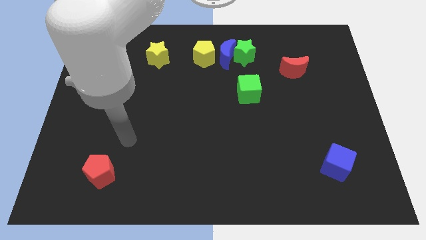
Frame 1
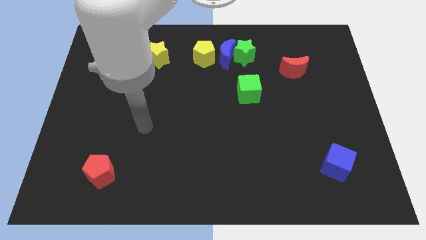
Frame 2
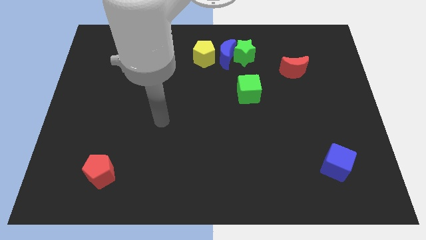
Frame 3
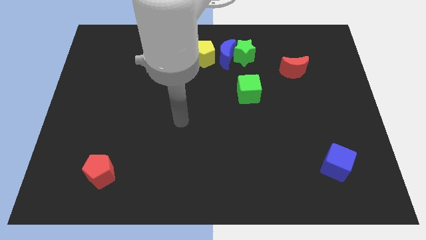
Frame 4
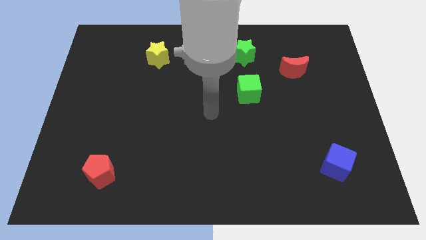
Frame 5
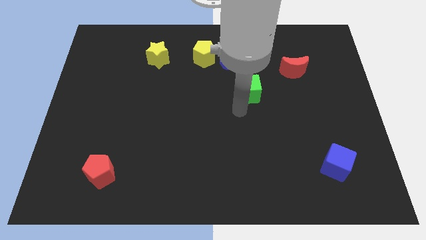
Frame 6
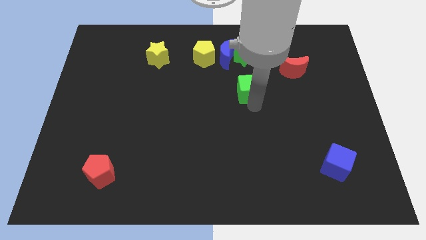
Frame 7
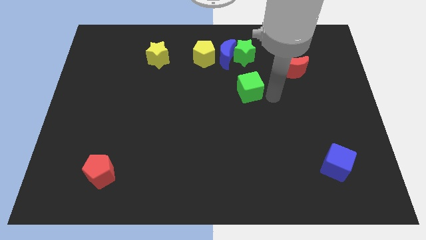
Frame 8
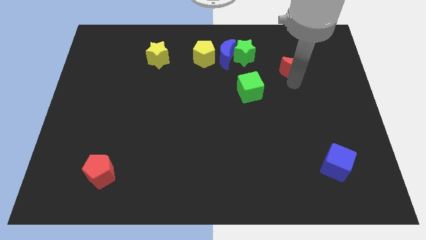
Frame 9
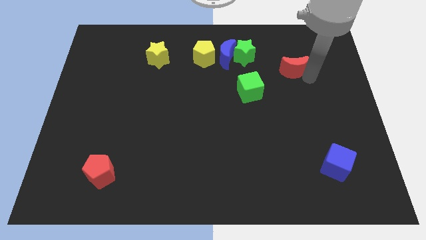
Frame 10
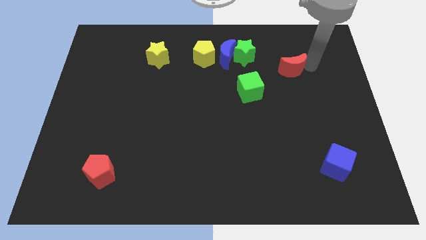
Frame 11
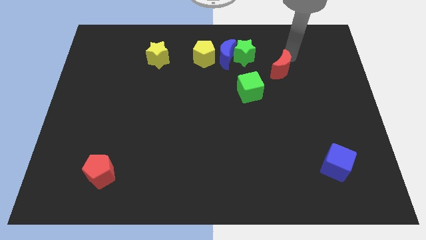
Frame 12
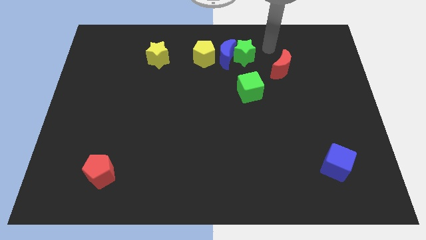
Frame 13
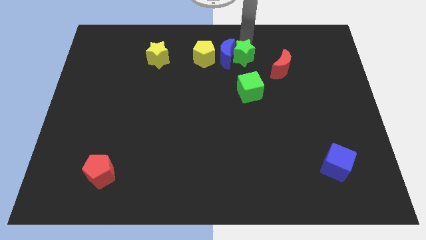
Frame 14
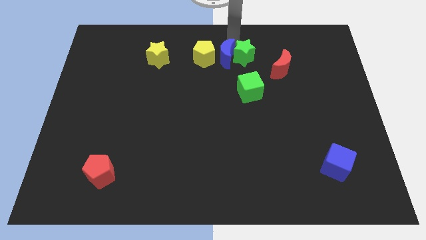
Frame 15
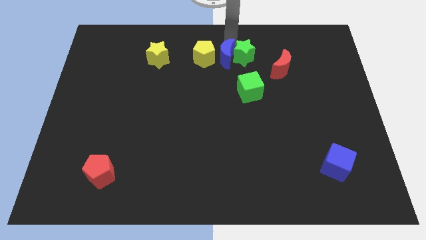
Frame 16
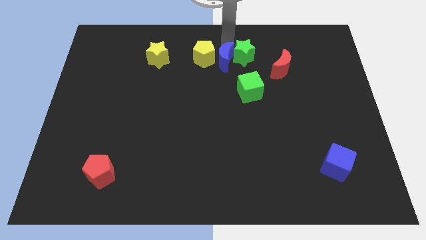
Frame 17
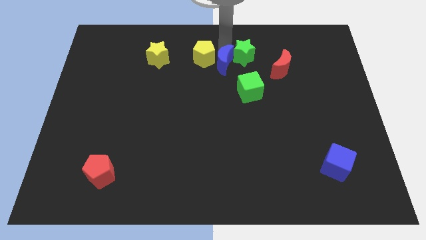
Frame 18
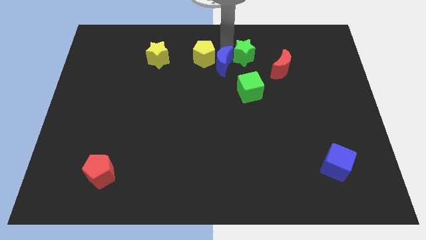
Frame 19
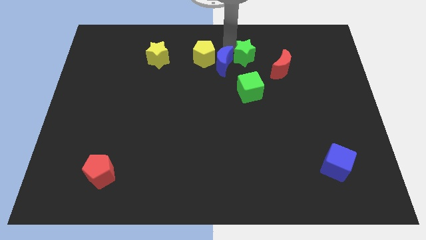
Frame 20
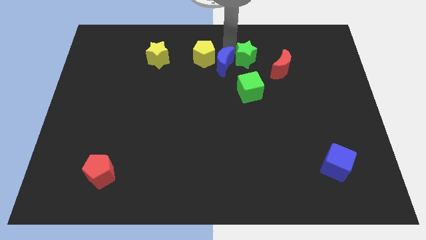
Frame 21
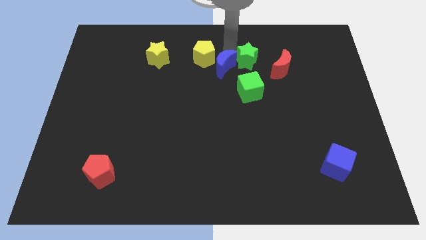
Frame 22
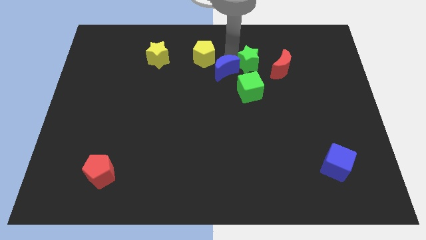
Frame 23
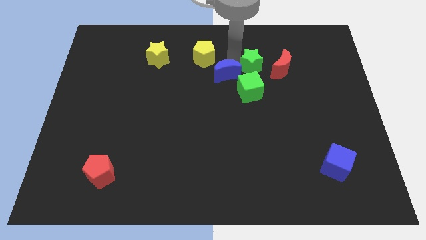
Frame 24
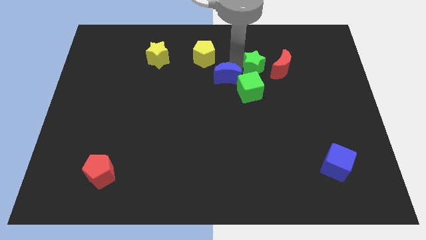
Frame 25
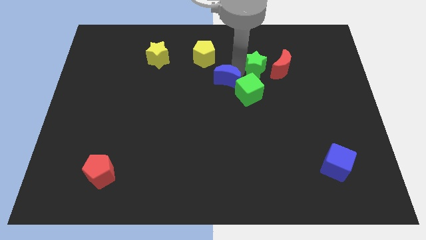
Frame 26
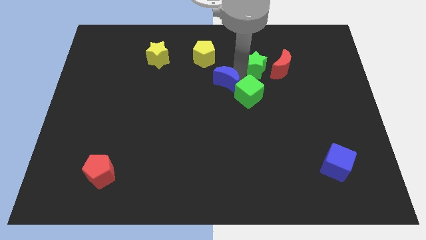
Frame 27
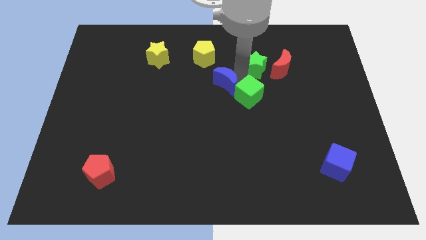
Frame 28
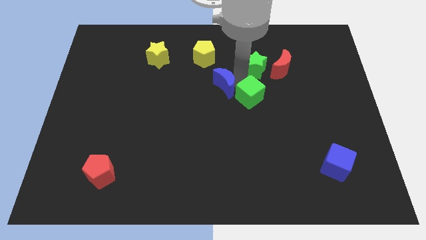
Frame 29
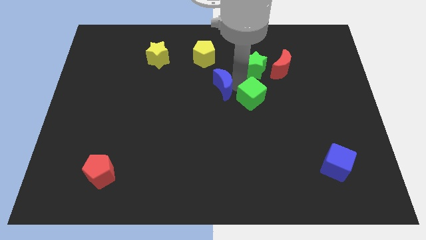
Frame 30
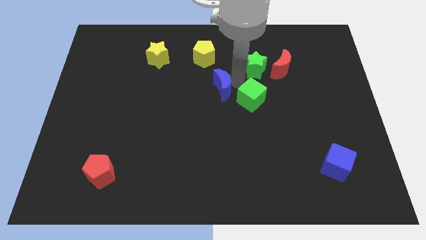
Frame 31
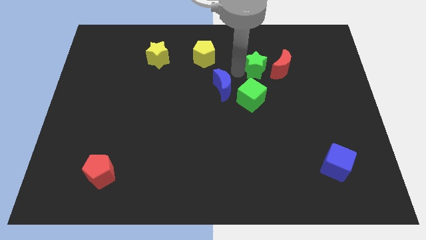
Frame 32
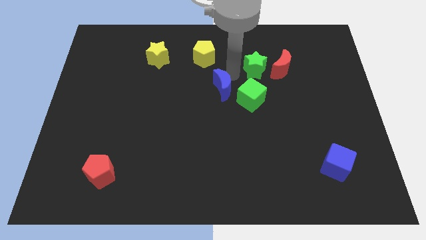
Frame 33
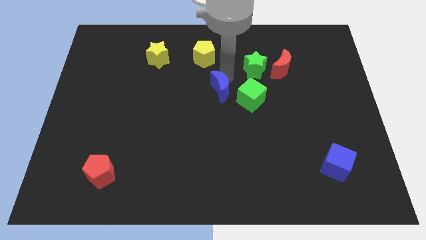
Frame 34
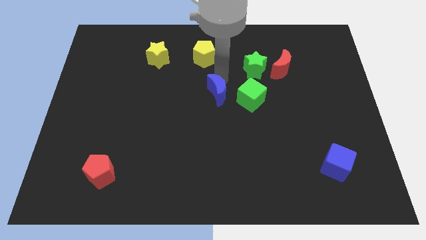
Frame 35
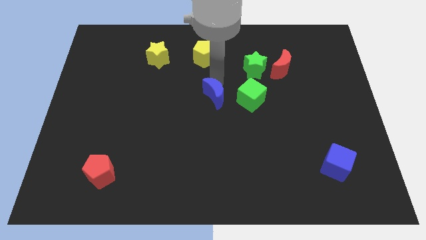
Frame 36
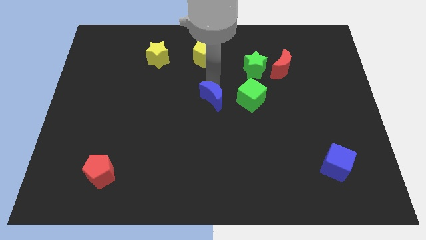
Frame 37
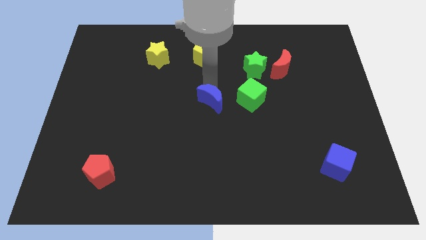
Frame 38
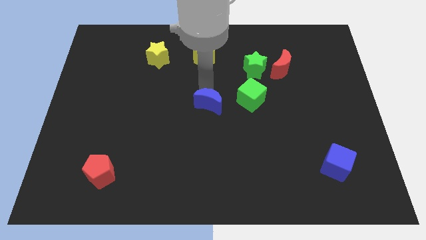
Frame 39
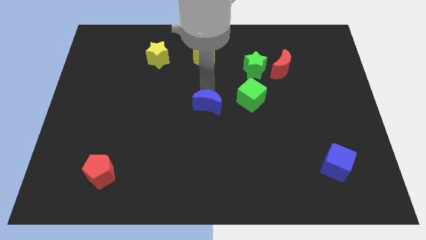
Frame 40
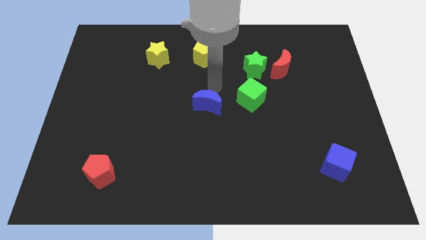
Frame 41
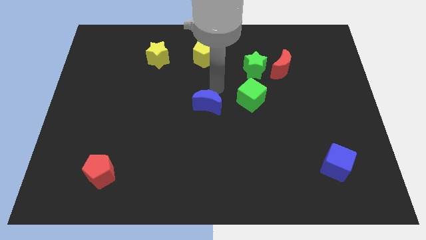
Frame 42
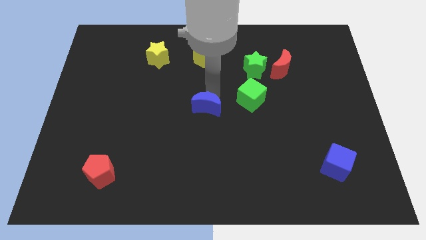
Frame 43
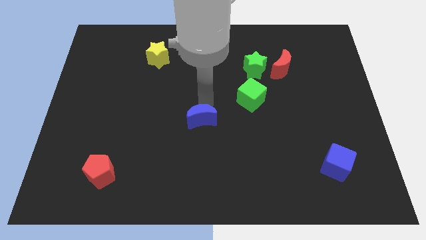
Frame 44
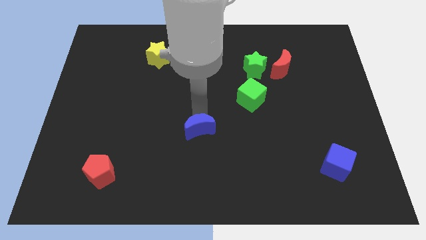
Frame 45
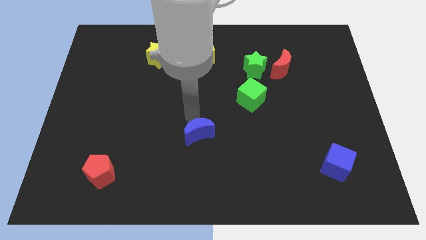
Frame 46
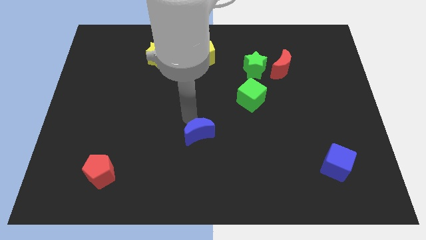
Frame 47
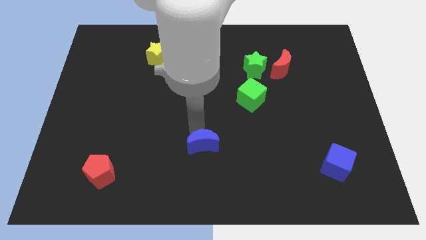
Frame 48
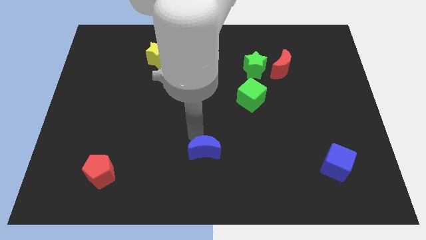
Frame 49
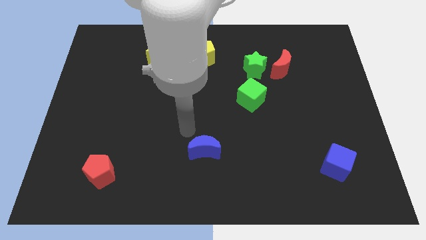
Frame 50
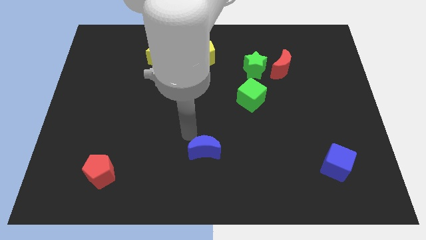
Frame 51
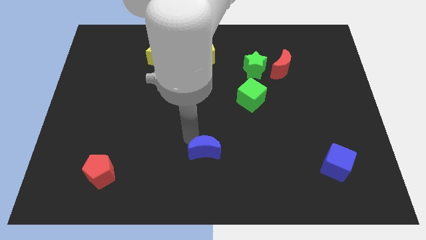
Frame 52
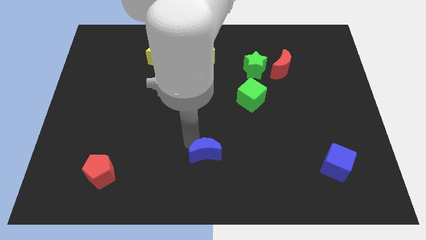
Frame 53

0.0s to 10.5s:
move the blue moon to the bottom side

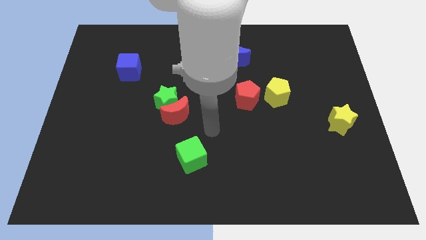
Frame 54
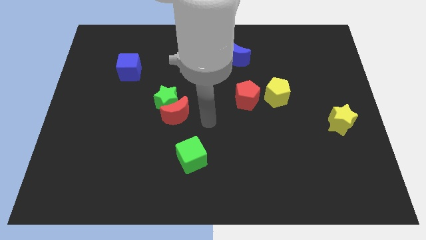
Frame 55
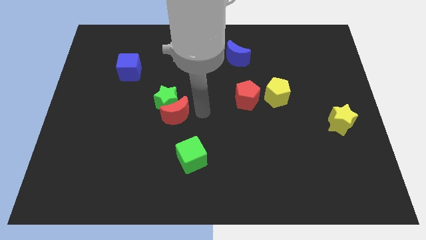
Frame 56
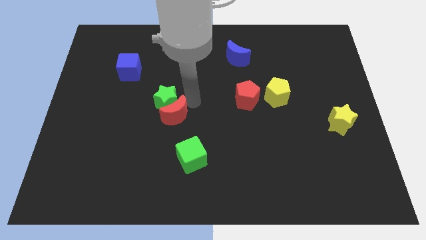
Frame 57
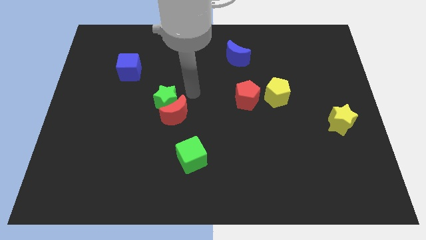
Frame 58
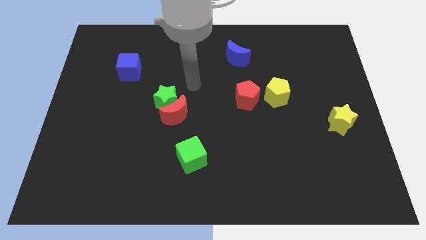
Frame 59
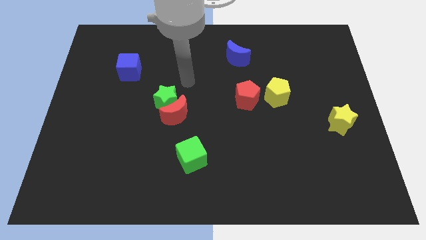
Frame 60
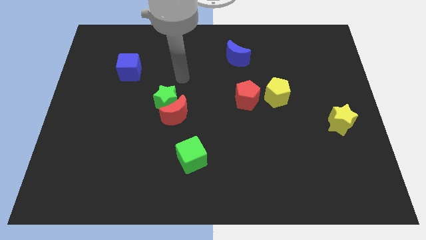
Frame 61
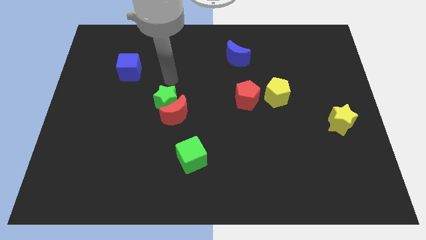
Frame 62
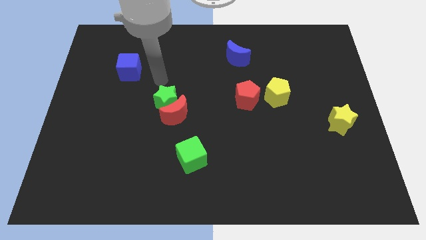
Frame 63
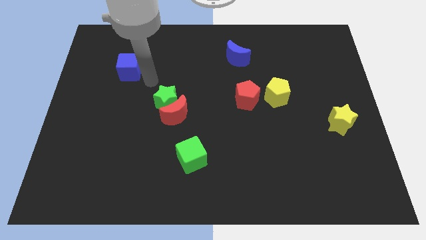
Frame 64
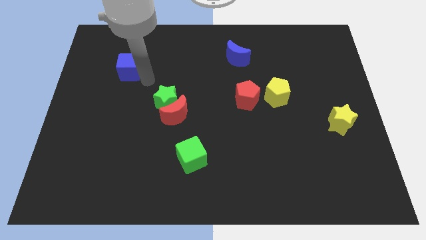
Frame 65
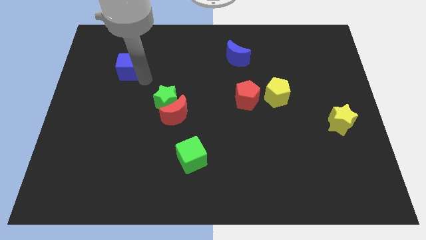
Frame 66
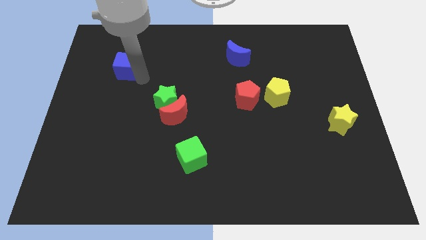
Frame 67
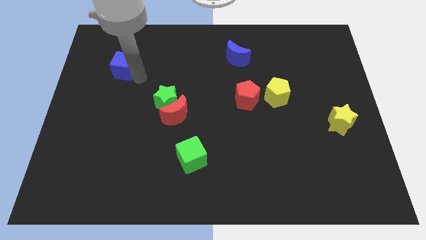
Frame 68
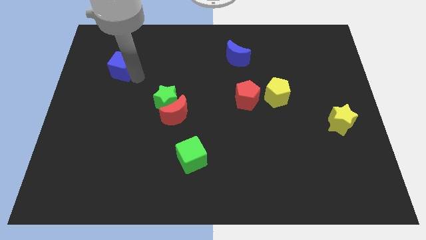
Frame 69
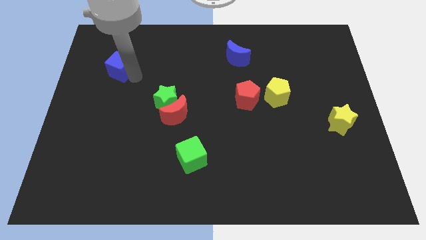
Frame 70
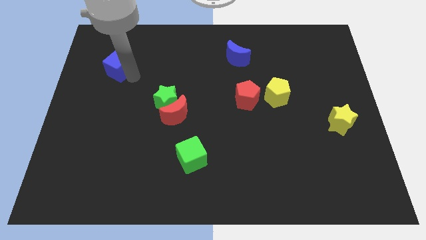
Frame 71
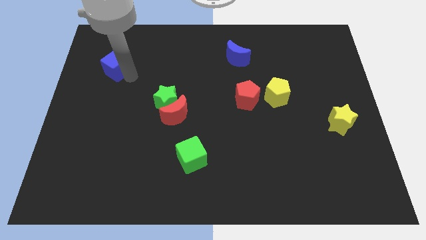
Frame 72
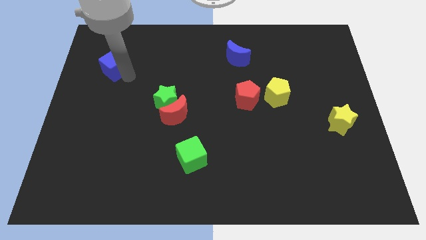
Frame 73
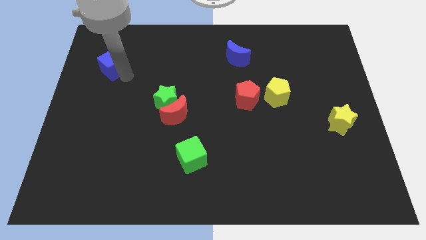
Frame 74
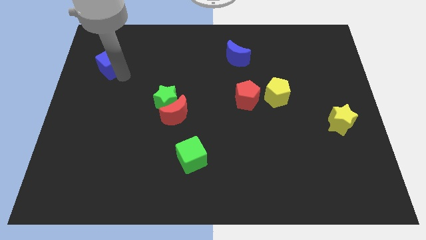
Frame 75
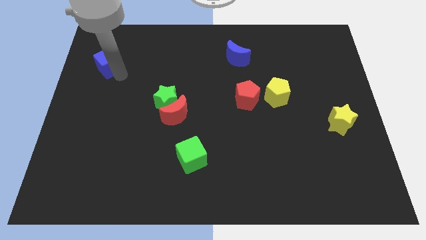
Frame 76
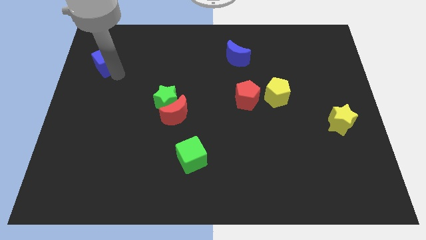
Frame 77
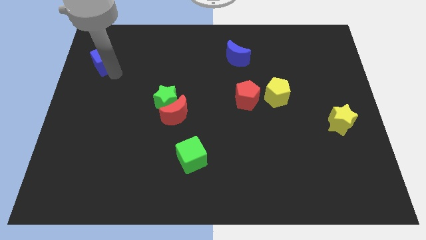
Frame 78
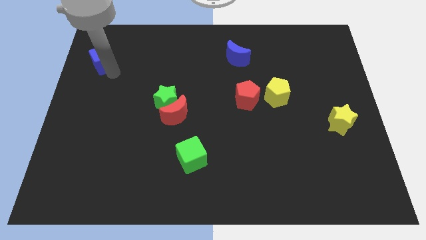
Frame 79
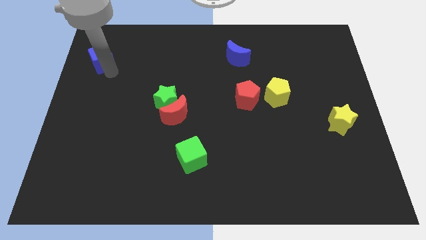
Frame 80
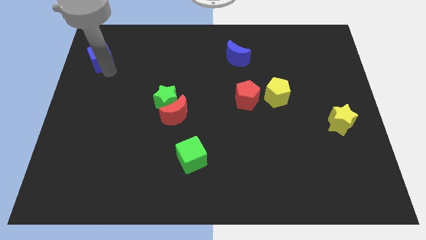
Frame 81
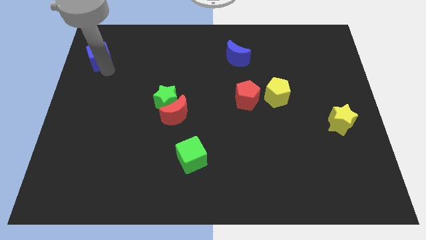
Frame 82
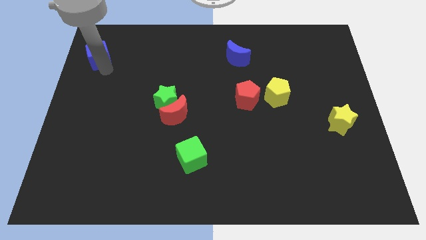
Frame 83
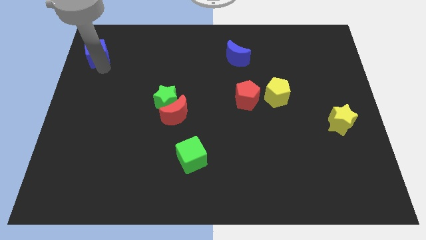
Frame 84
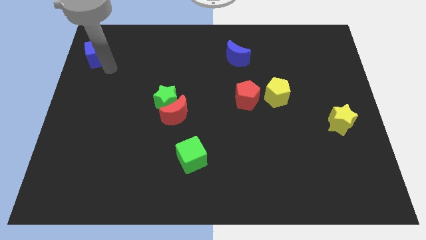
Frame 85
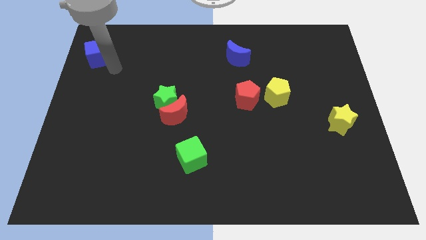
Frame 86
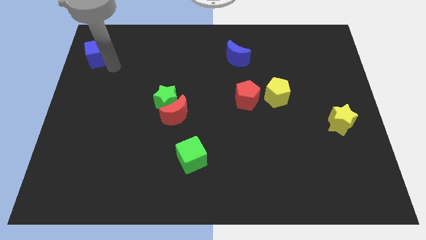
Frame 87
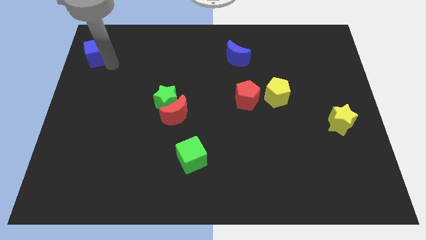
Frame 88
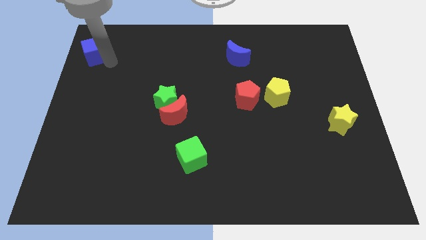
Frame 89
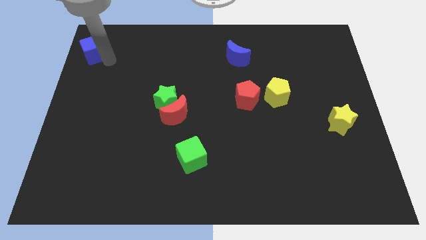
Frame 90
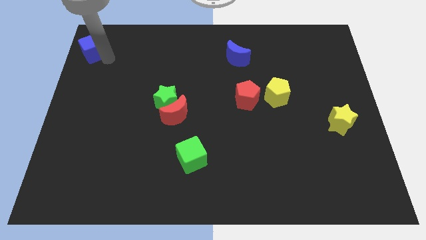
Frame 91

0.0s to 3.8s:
move the blue cube to the upper left corner
